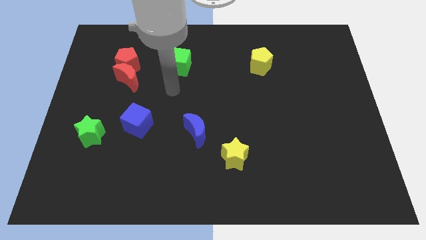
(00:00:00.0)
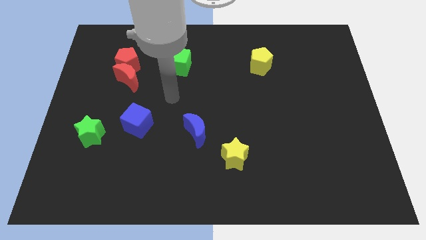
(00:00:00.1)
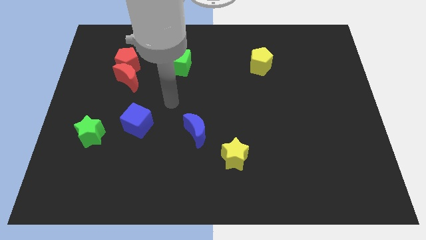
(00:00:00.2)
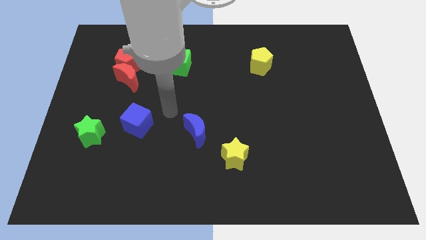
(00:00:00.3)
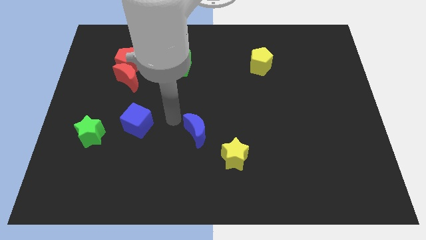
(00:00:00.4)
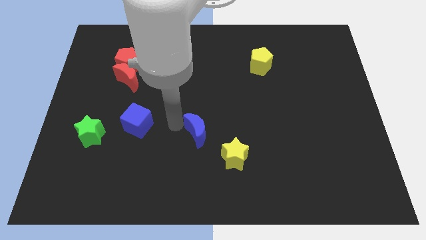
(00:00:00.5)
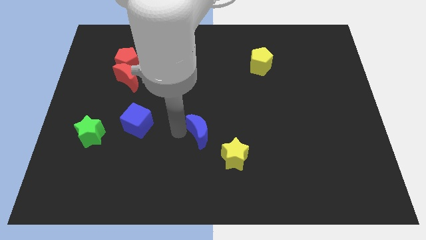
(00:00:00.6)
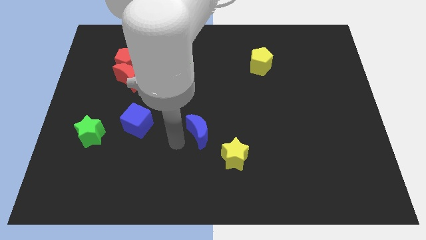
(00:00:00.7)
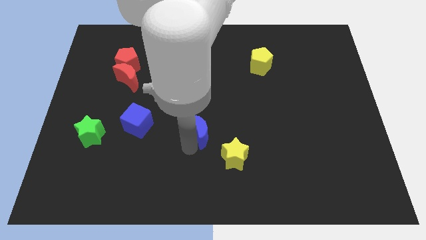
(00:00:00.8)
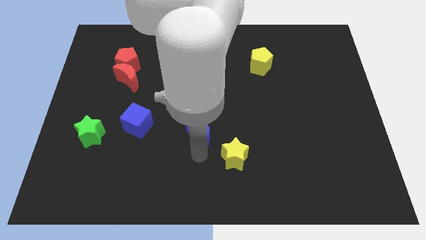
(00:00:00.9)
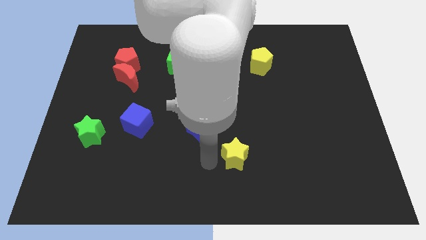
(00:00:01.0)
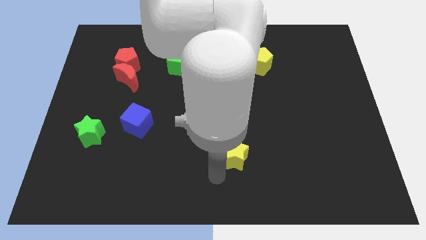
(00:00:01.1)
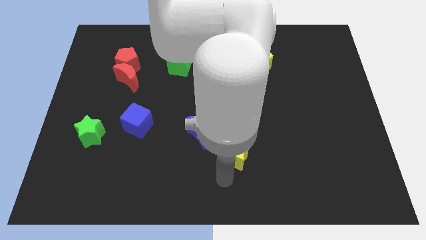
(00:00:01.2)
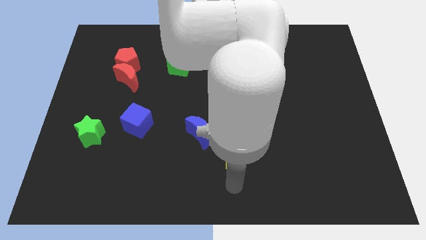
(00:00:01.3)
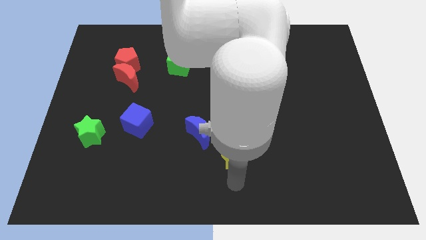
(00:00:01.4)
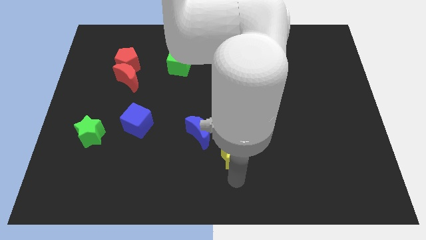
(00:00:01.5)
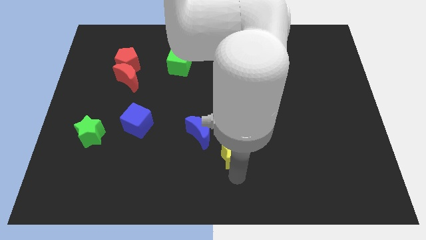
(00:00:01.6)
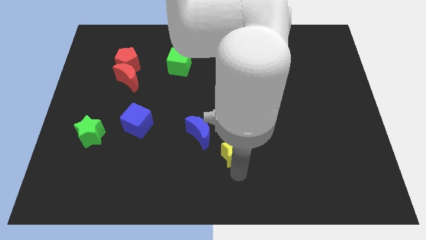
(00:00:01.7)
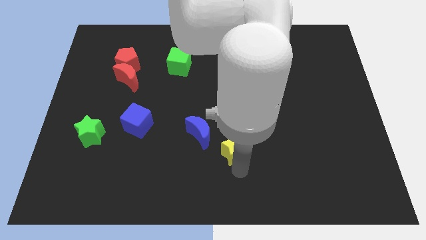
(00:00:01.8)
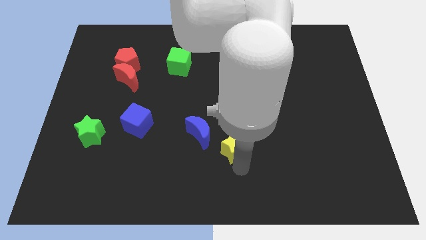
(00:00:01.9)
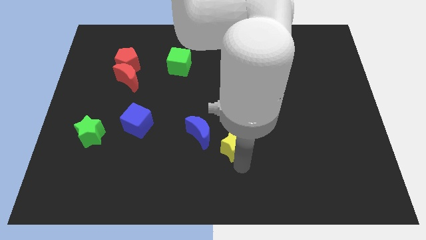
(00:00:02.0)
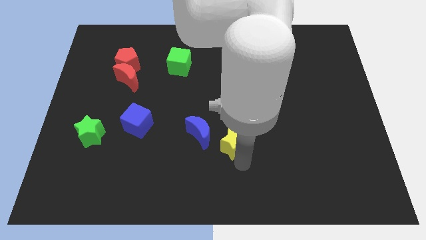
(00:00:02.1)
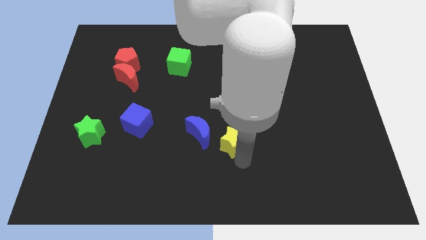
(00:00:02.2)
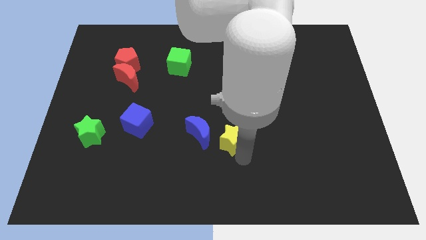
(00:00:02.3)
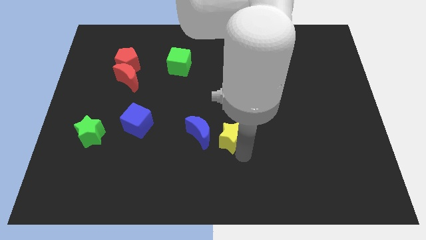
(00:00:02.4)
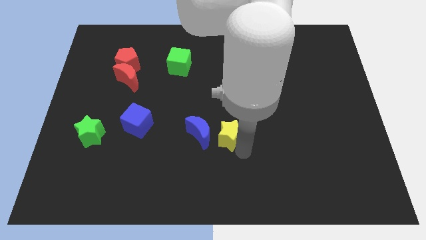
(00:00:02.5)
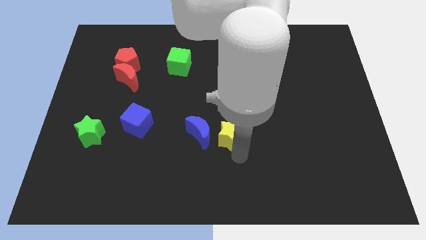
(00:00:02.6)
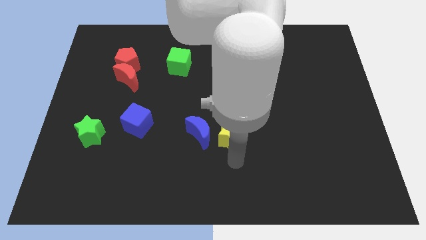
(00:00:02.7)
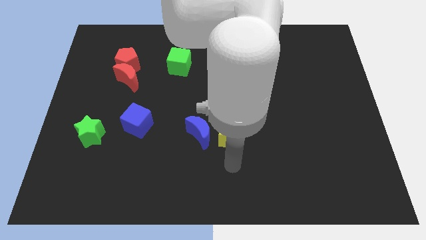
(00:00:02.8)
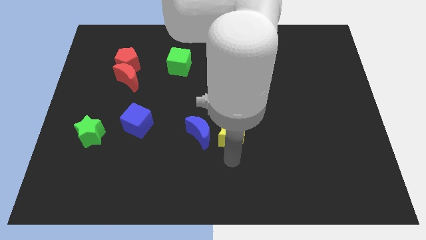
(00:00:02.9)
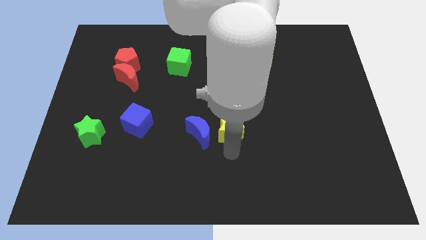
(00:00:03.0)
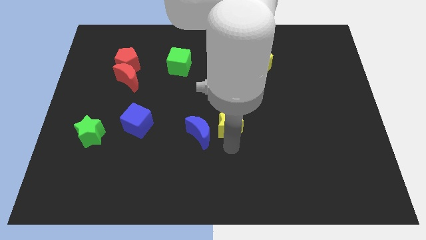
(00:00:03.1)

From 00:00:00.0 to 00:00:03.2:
move the yellow star a little upwards

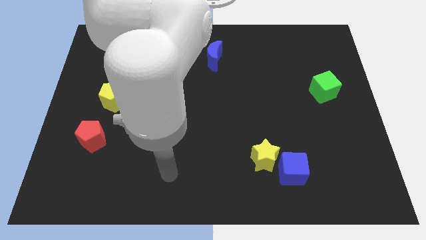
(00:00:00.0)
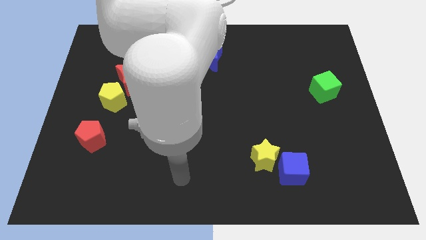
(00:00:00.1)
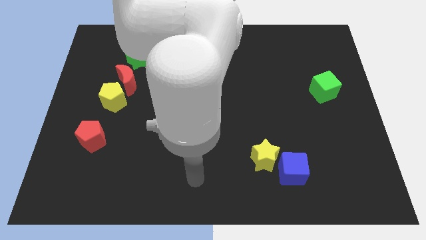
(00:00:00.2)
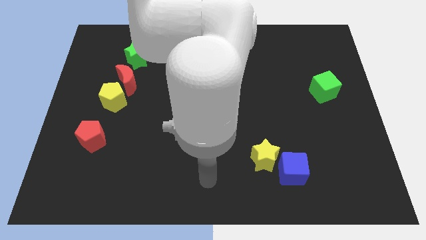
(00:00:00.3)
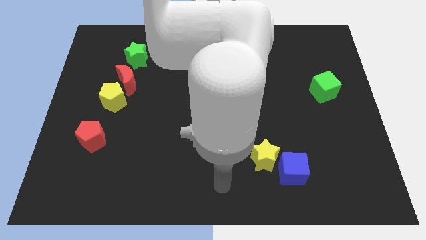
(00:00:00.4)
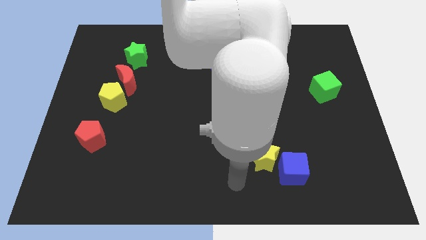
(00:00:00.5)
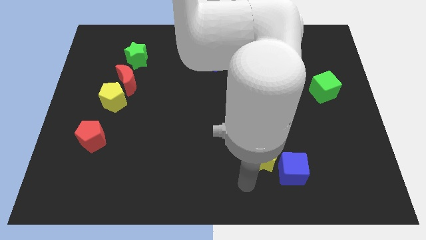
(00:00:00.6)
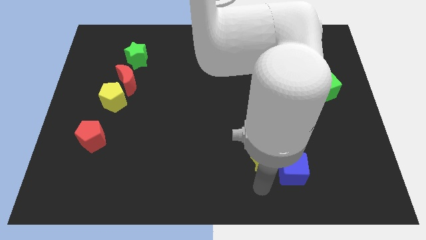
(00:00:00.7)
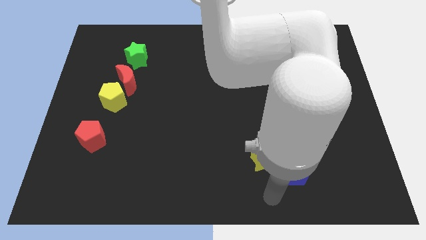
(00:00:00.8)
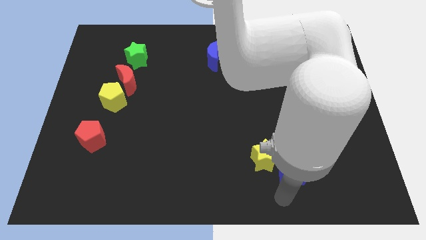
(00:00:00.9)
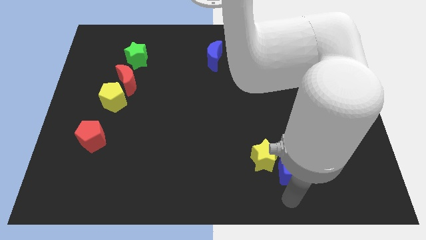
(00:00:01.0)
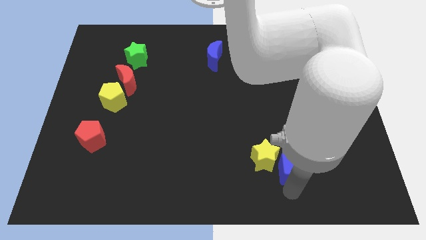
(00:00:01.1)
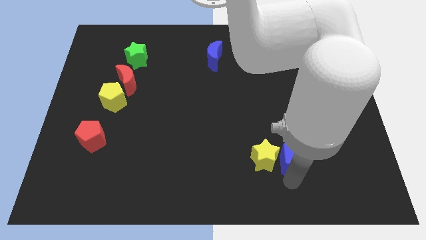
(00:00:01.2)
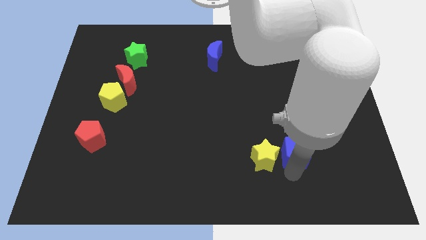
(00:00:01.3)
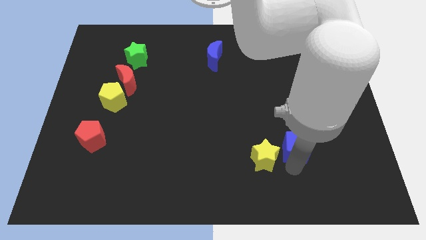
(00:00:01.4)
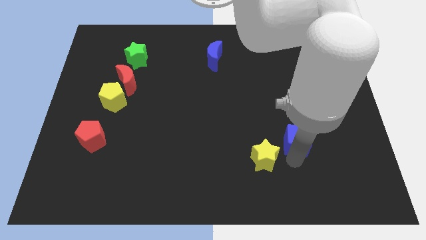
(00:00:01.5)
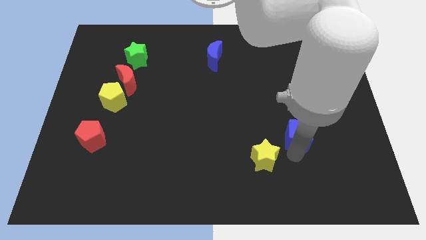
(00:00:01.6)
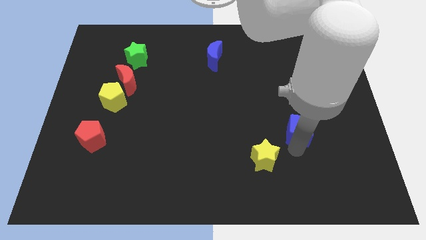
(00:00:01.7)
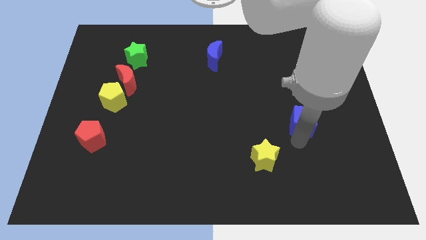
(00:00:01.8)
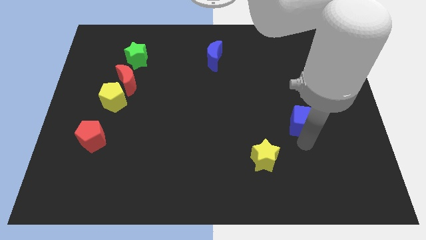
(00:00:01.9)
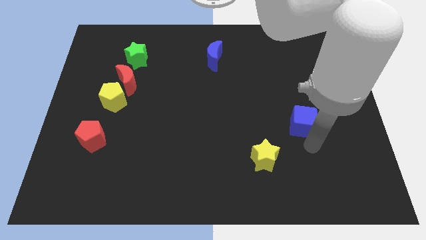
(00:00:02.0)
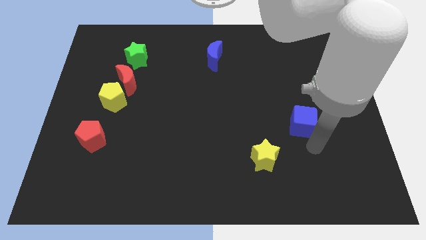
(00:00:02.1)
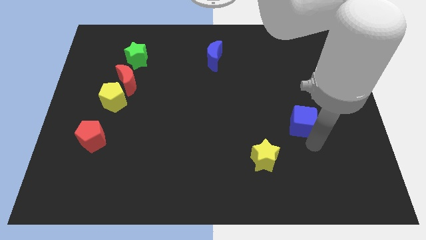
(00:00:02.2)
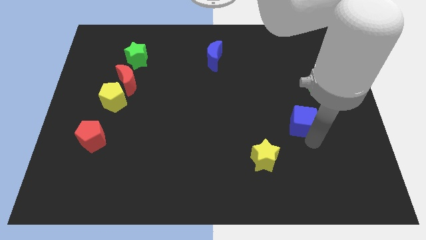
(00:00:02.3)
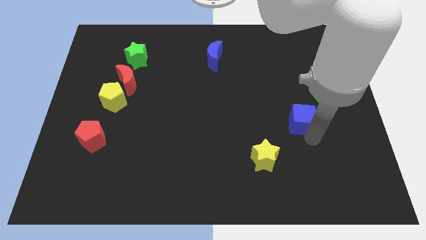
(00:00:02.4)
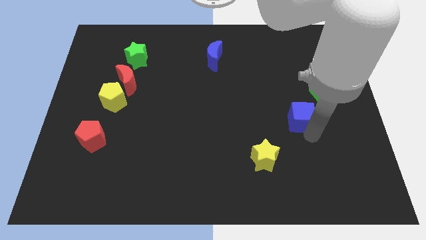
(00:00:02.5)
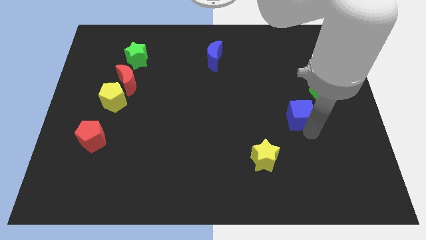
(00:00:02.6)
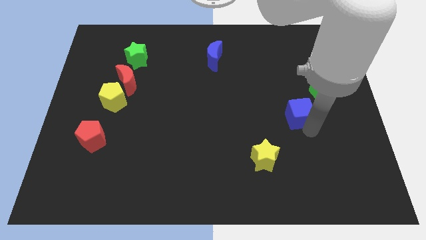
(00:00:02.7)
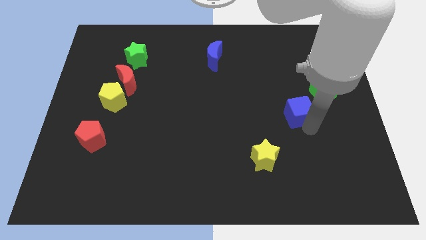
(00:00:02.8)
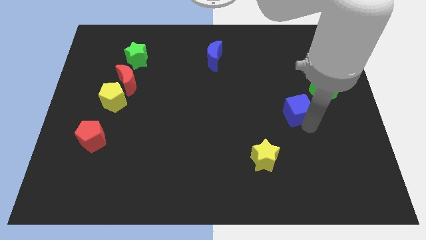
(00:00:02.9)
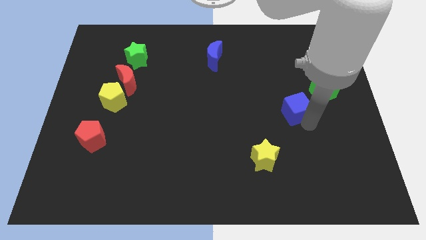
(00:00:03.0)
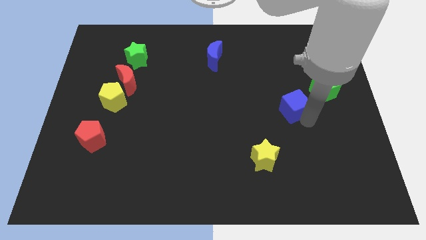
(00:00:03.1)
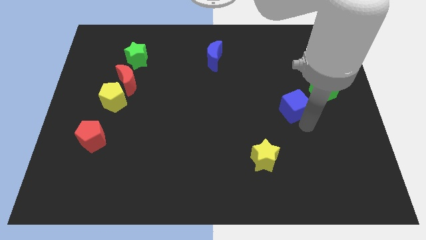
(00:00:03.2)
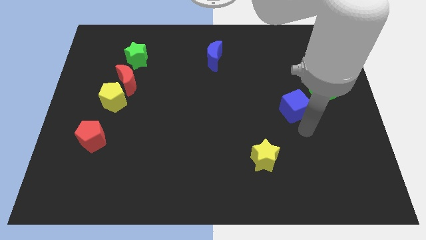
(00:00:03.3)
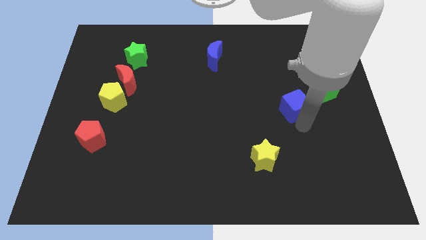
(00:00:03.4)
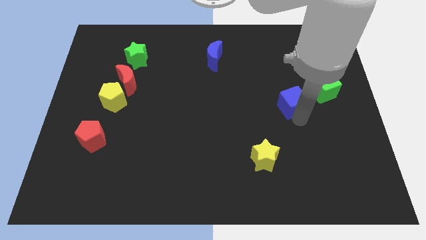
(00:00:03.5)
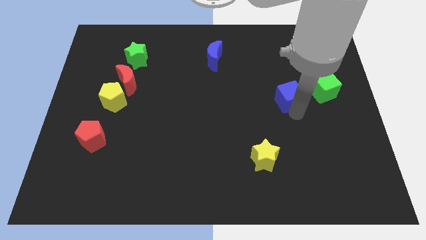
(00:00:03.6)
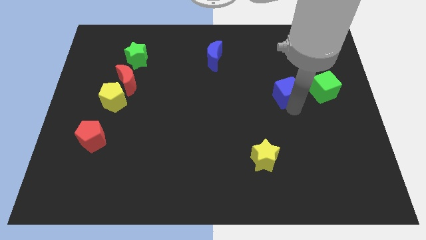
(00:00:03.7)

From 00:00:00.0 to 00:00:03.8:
push the blue cube upwards

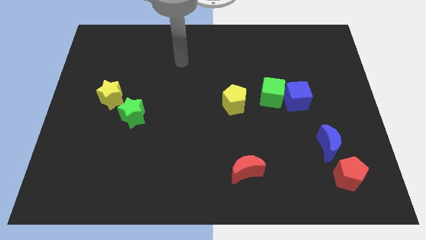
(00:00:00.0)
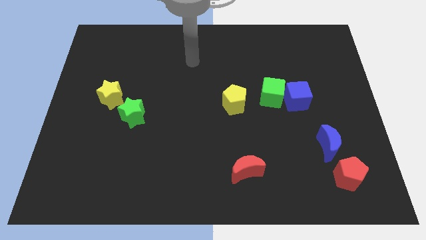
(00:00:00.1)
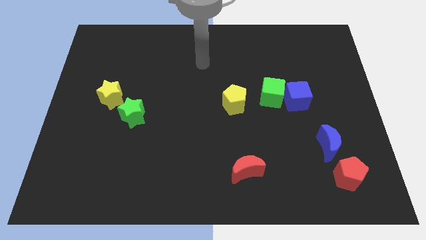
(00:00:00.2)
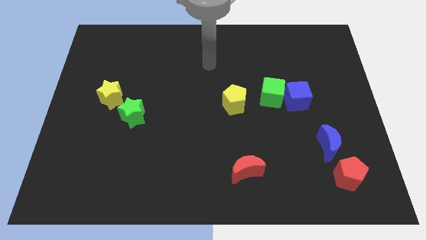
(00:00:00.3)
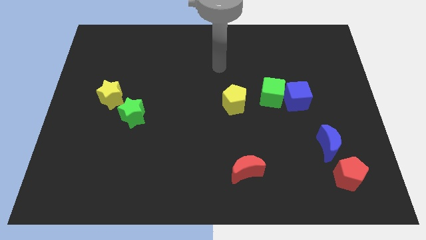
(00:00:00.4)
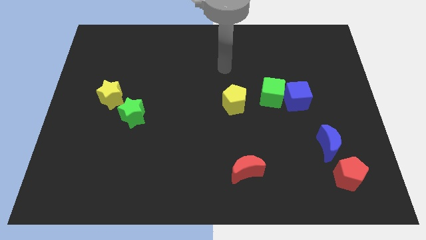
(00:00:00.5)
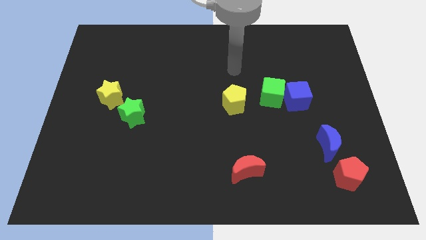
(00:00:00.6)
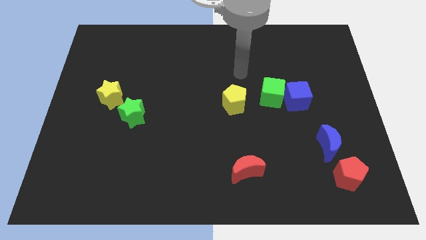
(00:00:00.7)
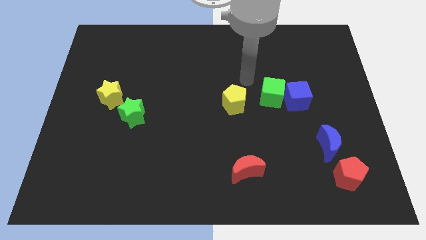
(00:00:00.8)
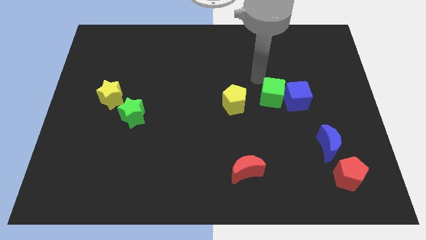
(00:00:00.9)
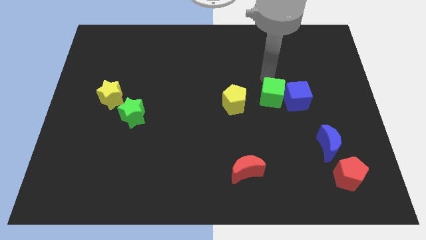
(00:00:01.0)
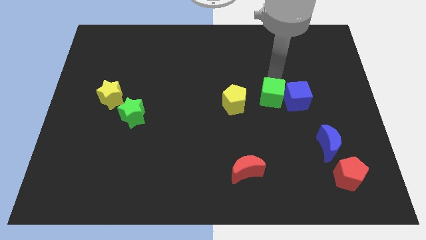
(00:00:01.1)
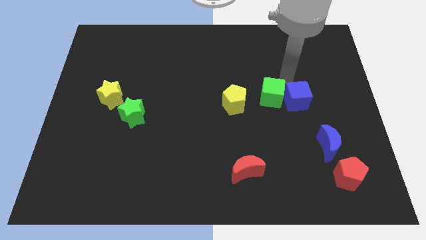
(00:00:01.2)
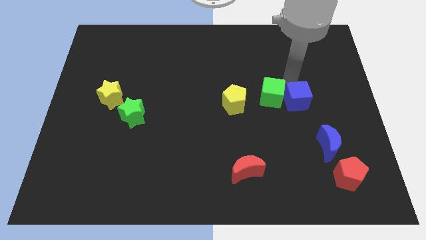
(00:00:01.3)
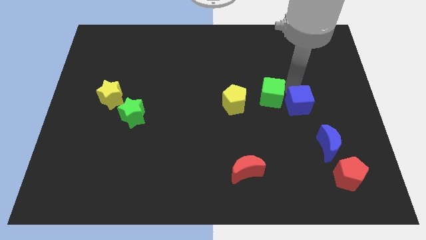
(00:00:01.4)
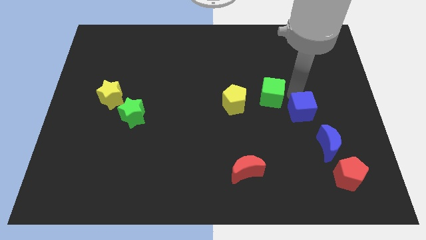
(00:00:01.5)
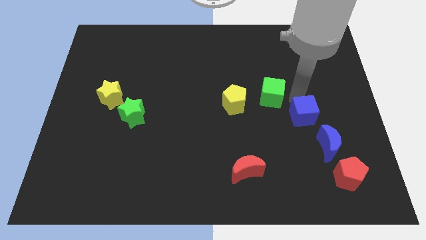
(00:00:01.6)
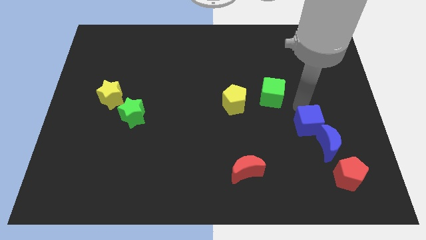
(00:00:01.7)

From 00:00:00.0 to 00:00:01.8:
push the blue cube a little bit downwards
